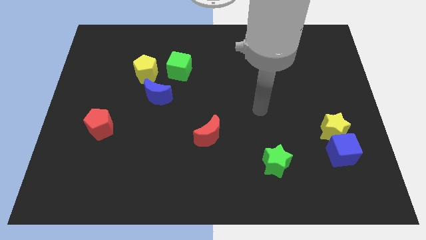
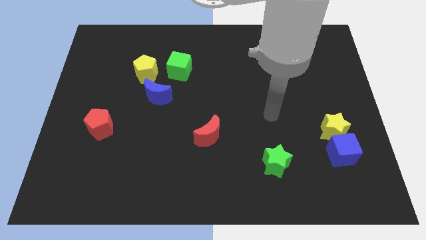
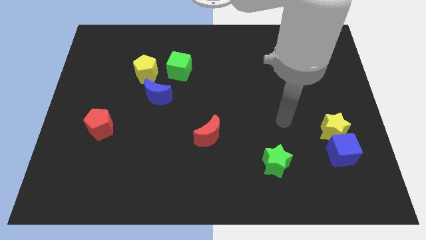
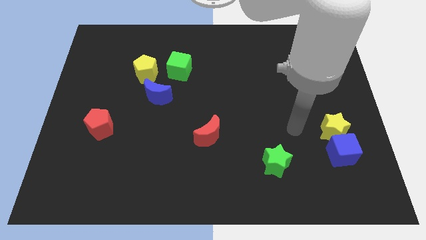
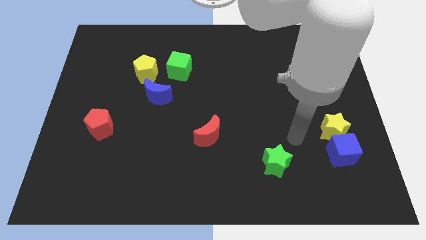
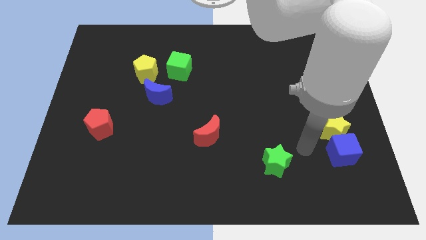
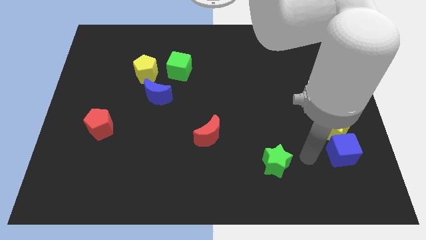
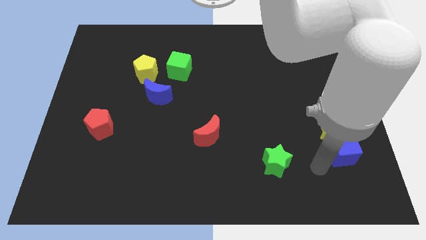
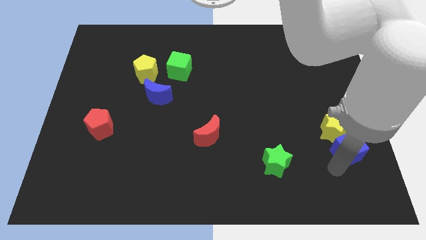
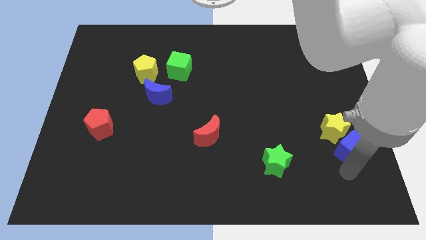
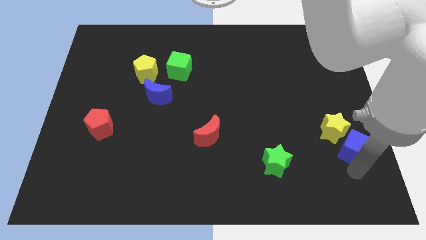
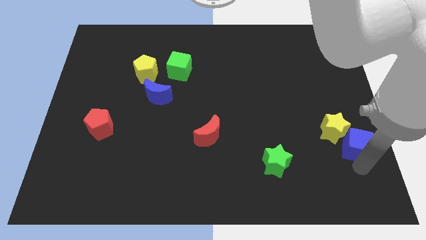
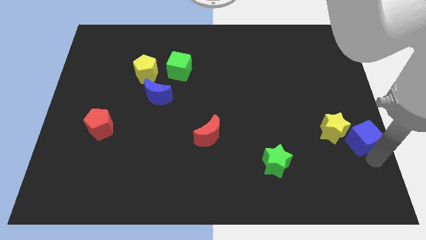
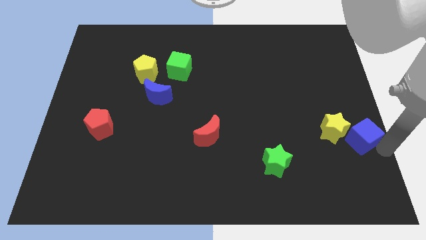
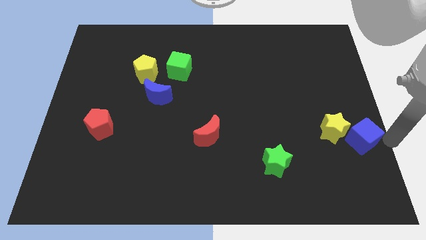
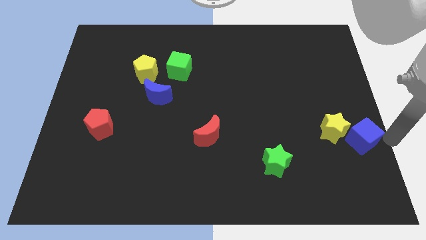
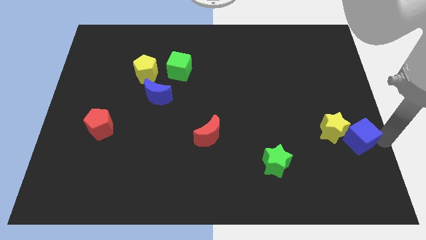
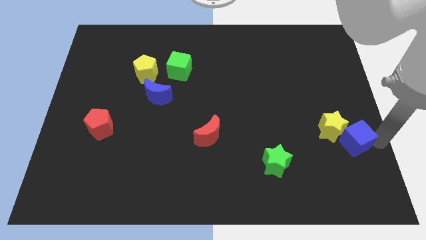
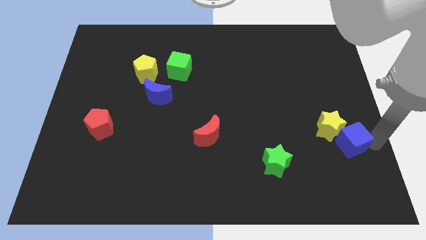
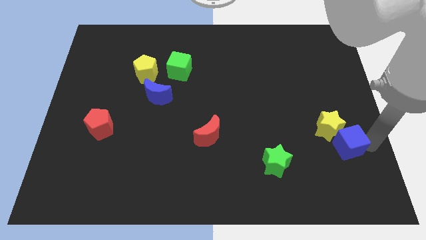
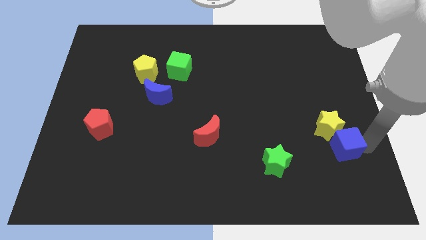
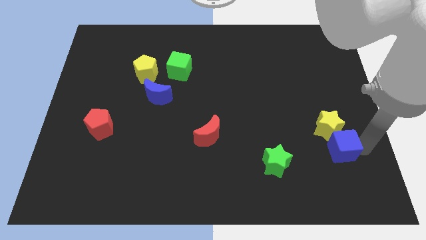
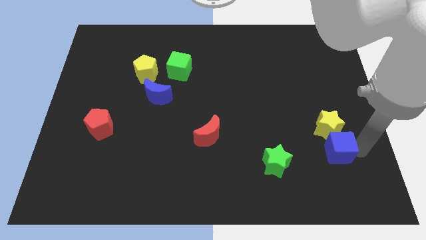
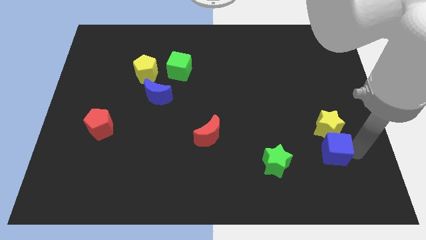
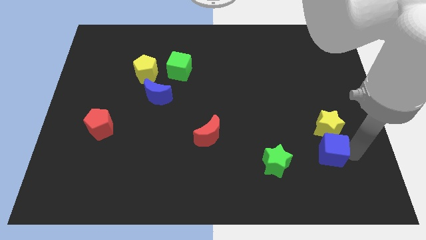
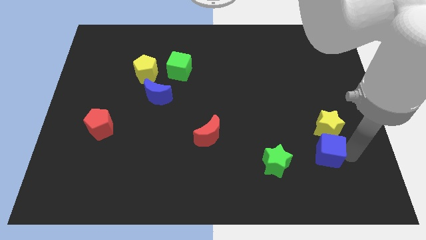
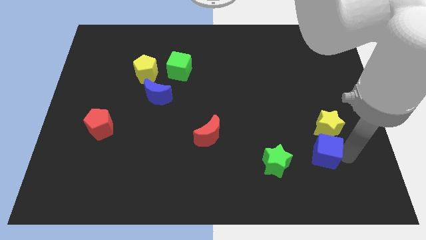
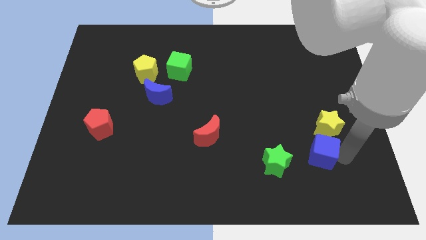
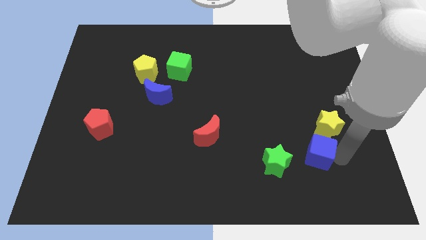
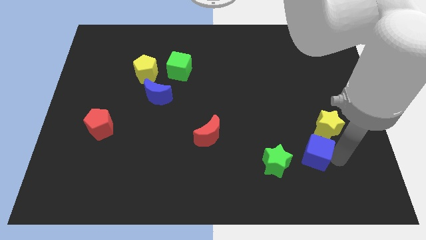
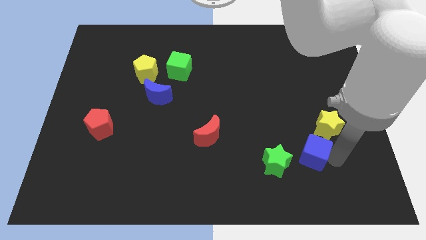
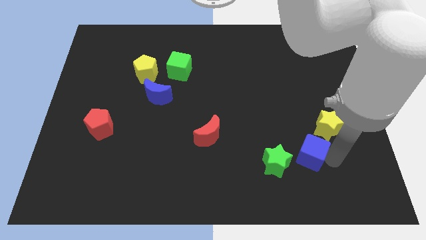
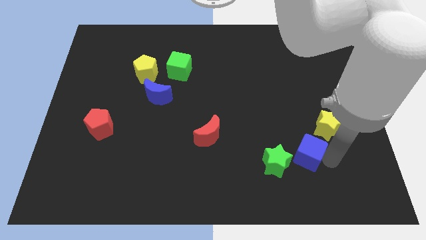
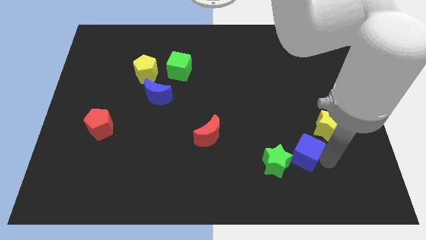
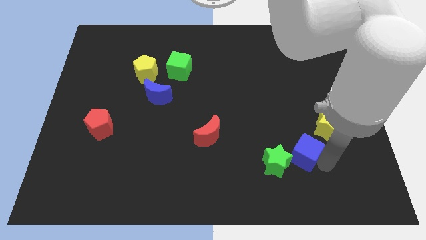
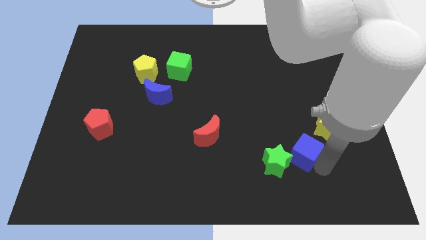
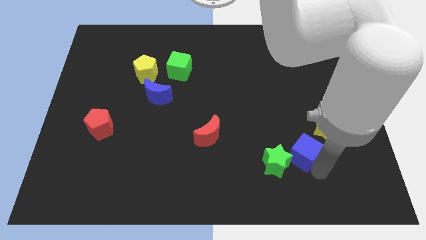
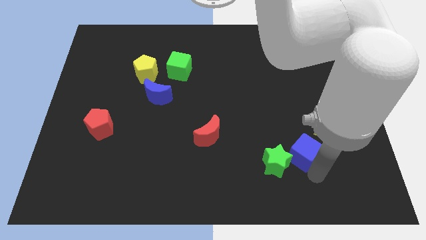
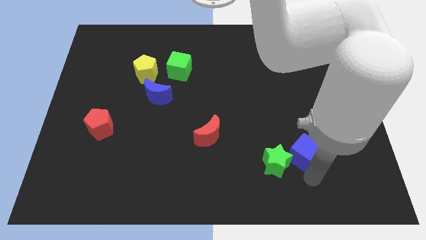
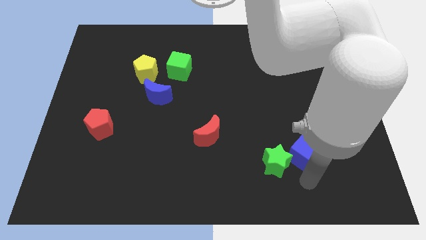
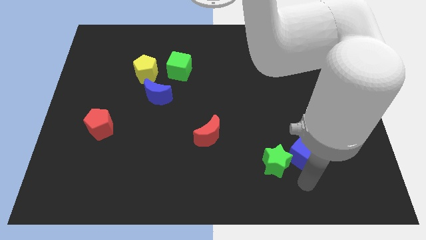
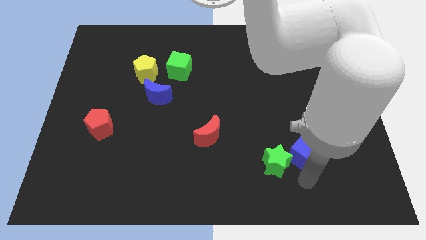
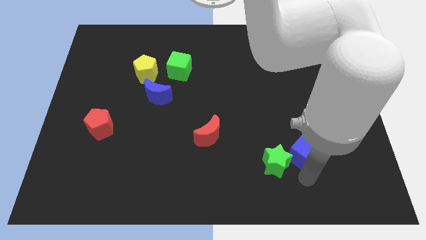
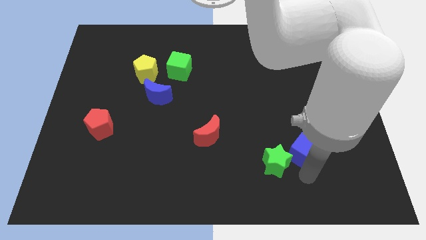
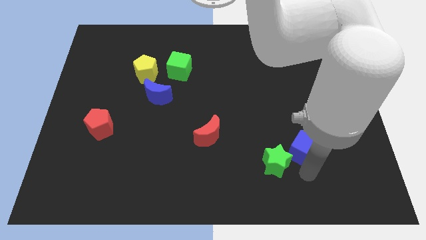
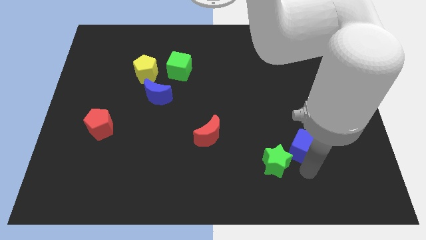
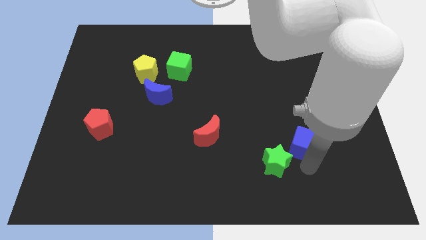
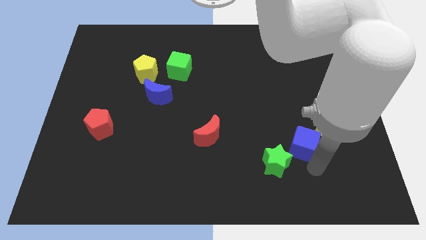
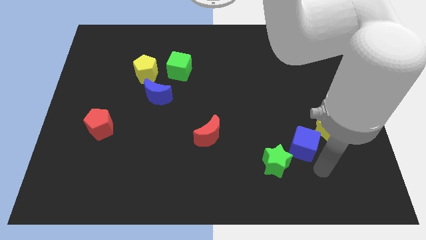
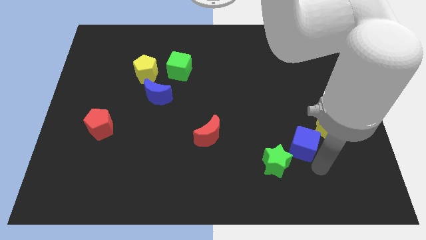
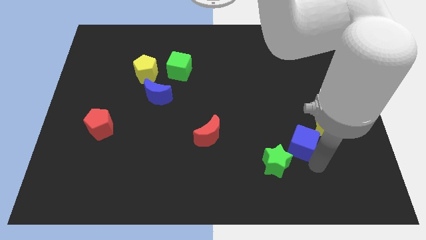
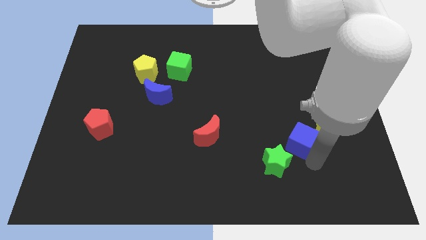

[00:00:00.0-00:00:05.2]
slightly slide the blue cube up and then to the left

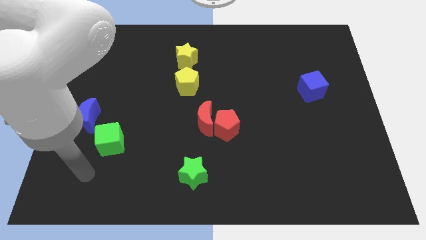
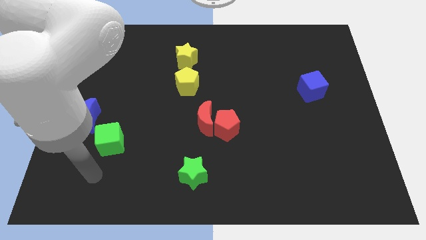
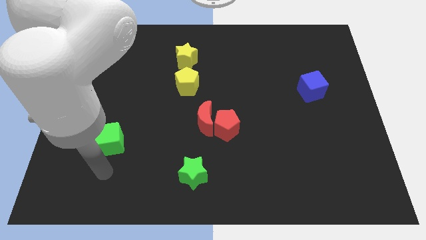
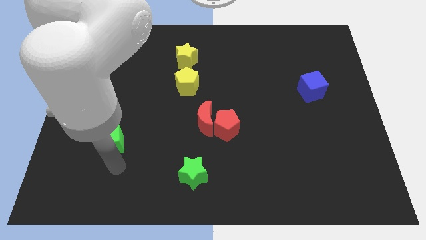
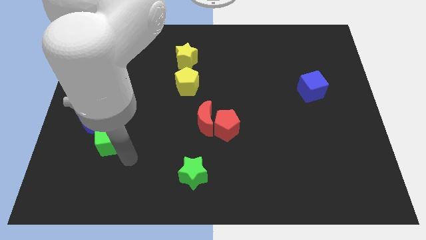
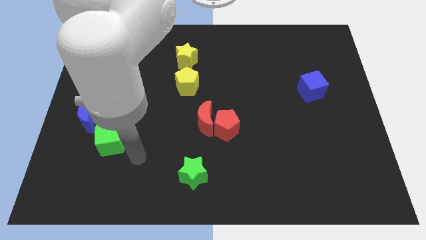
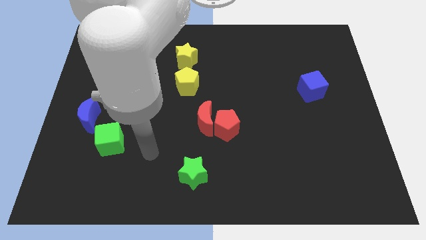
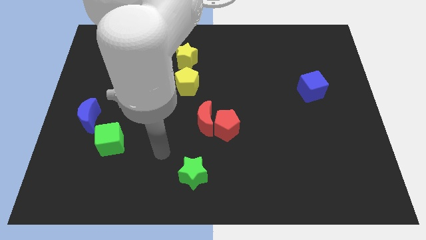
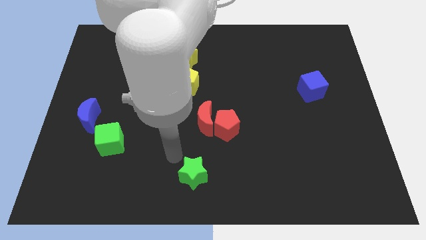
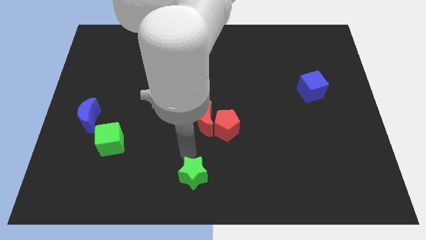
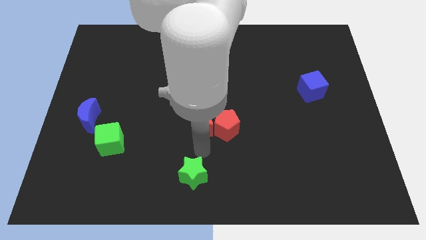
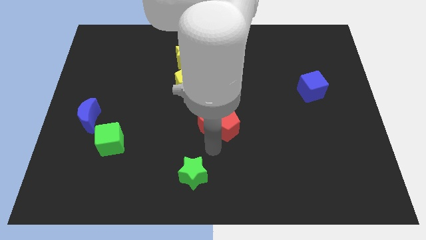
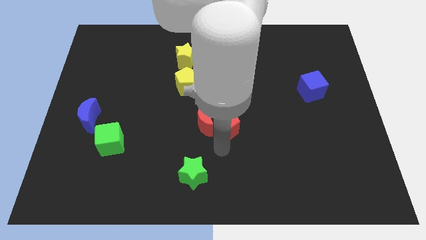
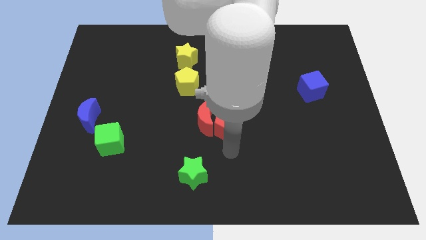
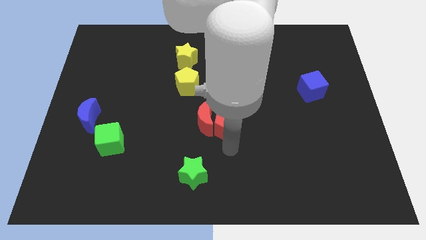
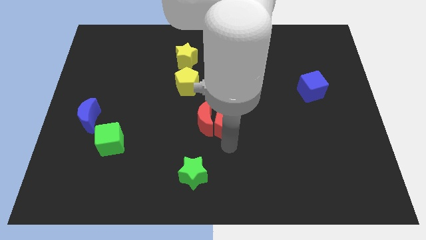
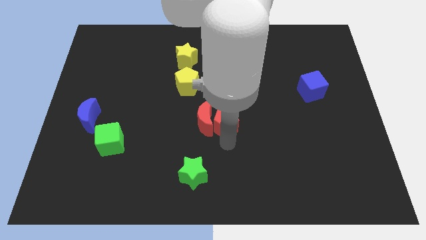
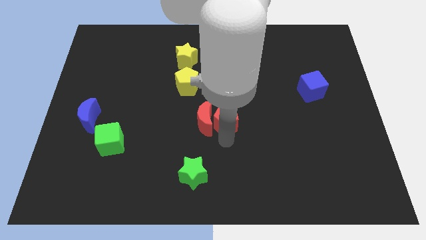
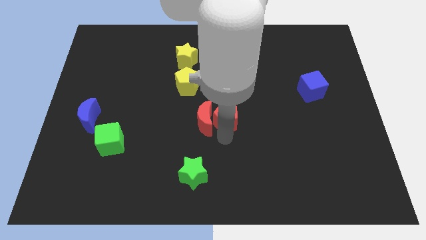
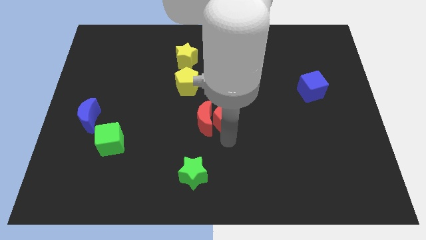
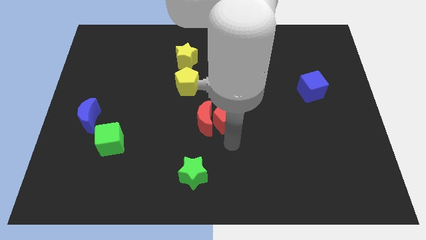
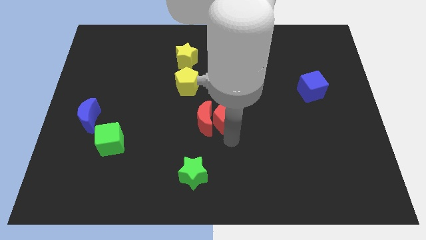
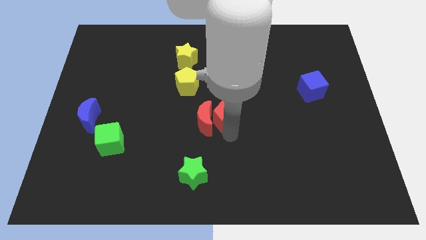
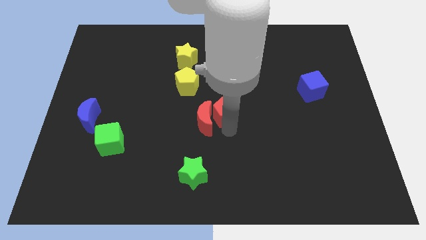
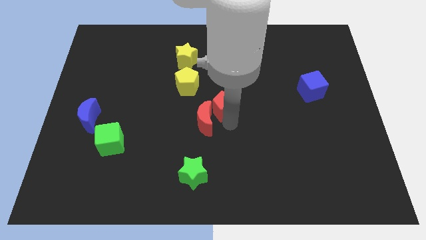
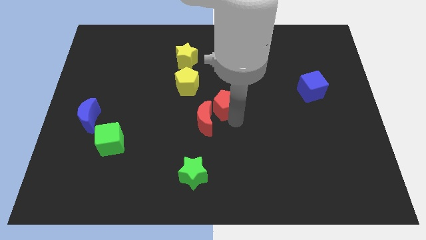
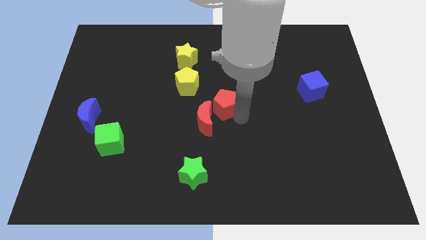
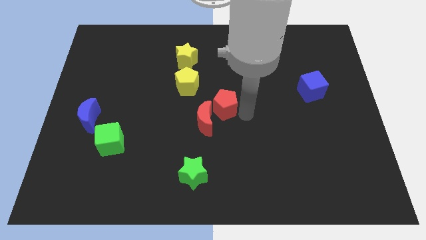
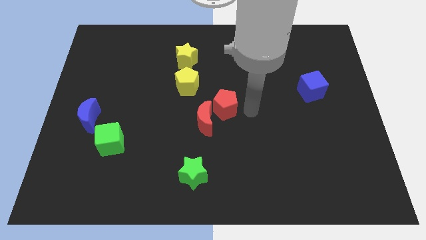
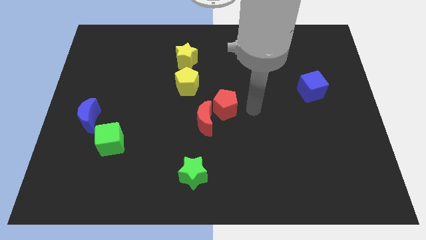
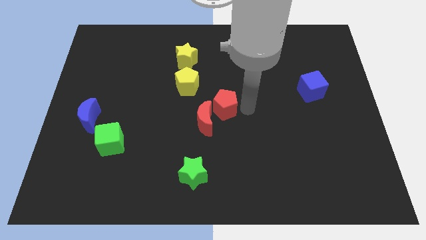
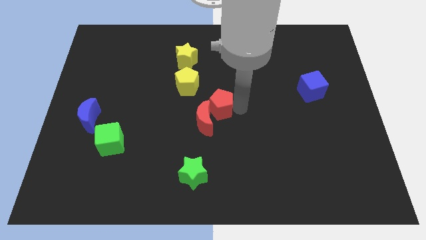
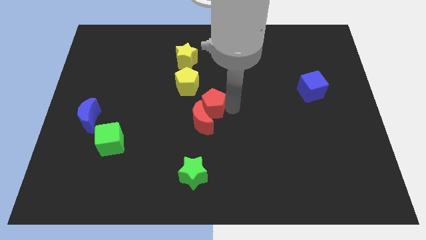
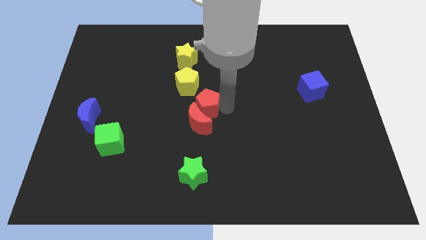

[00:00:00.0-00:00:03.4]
slightly push the red pentagon upwards and then left
